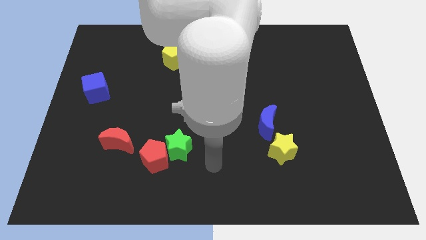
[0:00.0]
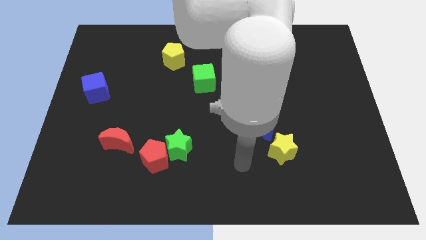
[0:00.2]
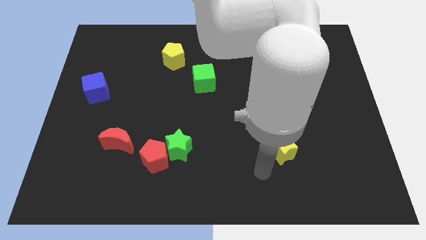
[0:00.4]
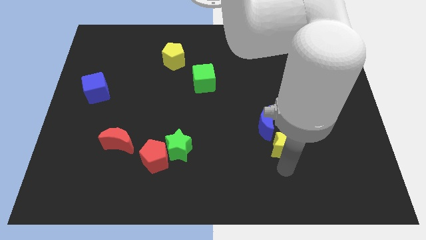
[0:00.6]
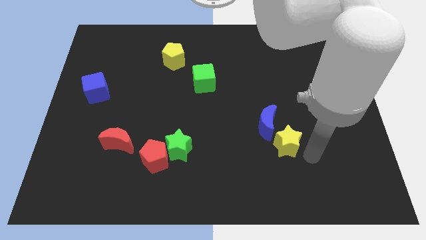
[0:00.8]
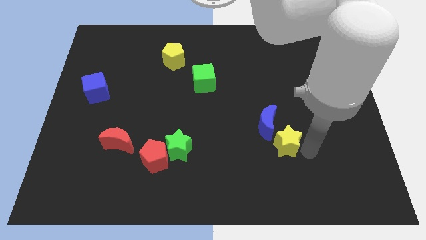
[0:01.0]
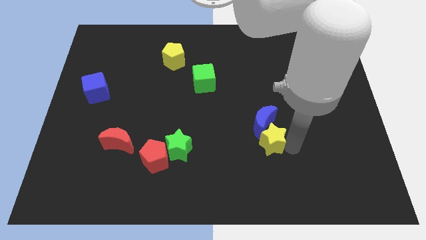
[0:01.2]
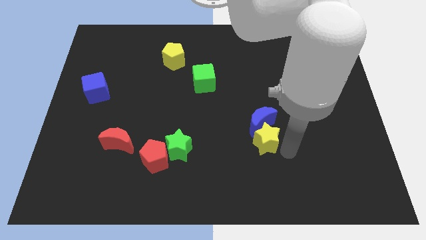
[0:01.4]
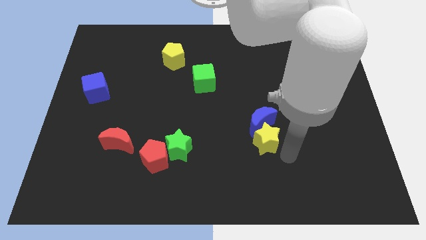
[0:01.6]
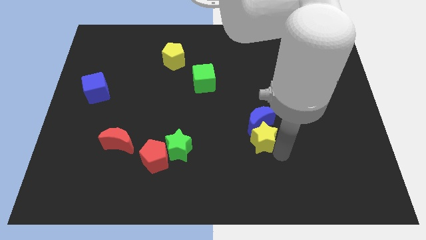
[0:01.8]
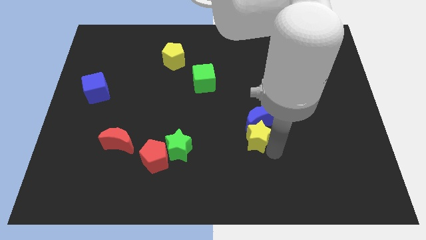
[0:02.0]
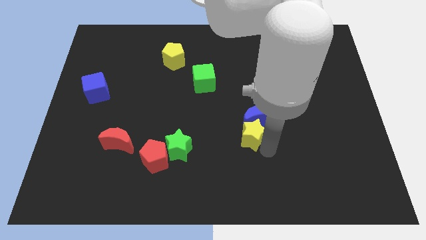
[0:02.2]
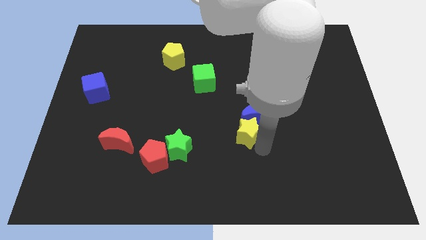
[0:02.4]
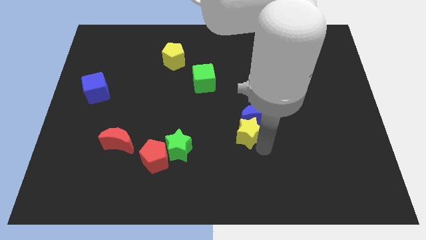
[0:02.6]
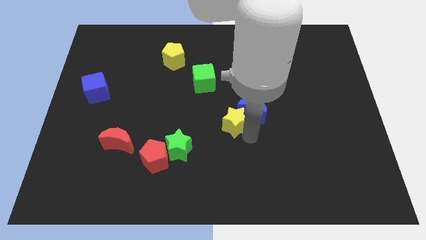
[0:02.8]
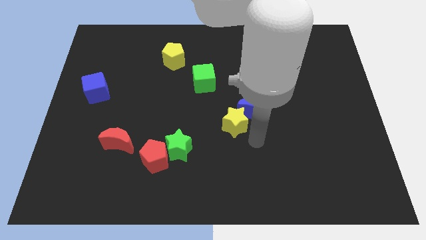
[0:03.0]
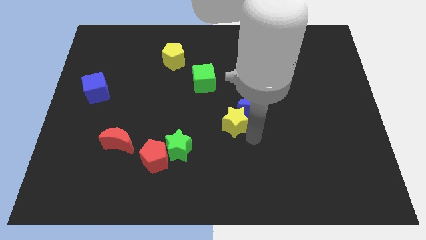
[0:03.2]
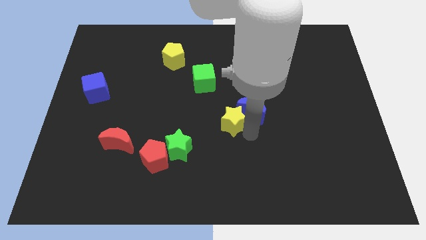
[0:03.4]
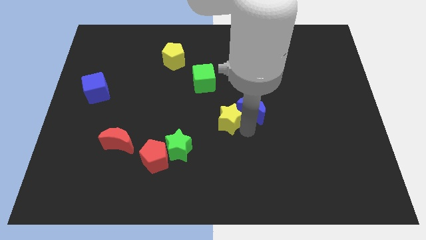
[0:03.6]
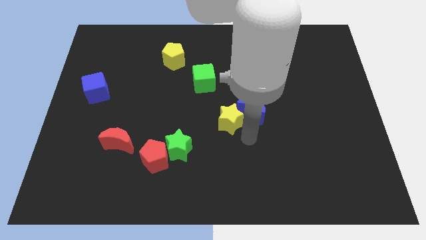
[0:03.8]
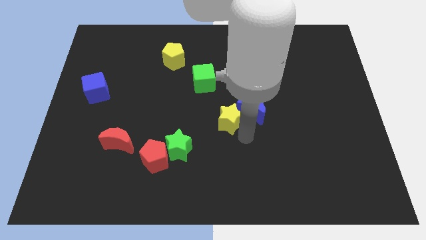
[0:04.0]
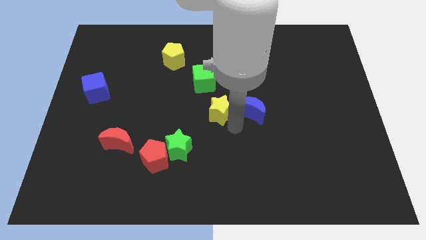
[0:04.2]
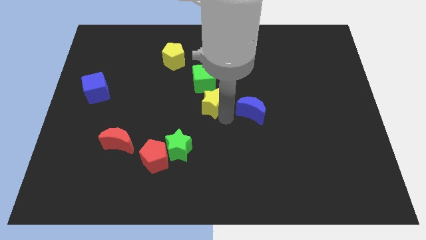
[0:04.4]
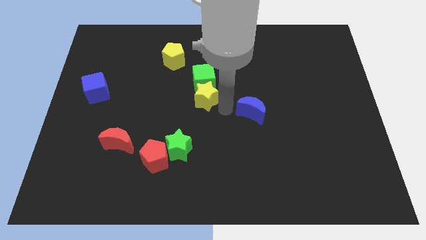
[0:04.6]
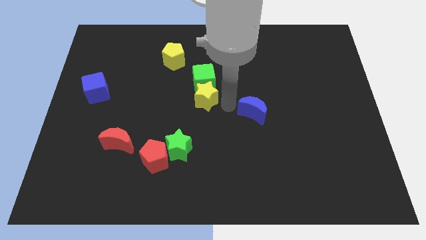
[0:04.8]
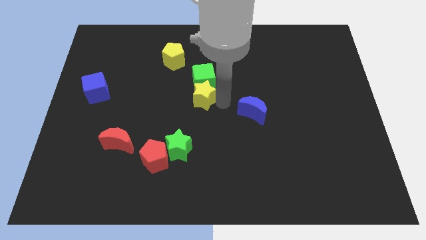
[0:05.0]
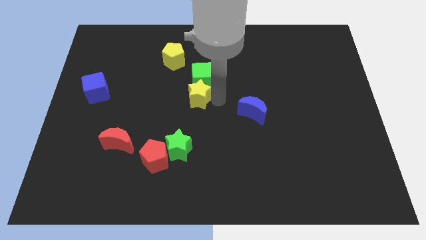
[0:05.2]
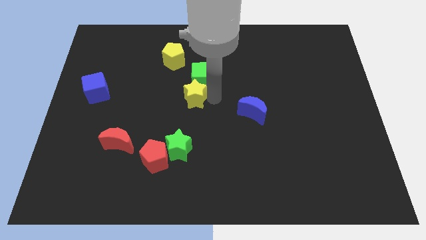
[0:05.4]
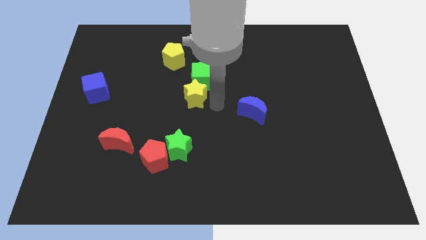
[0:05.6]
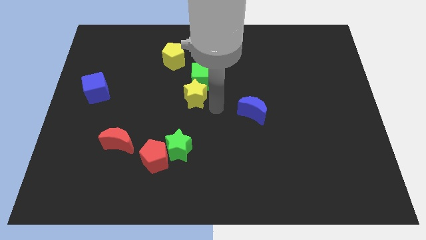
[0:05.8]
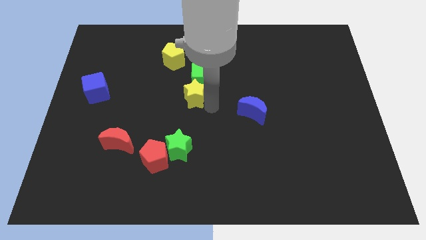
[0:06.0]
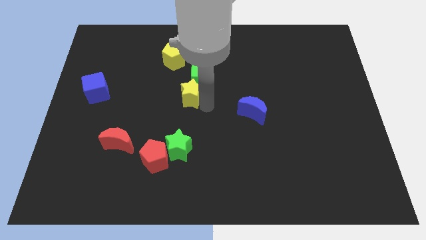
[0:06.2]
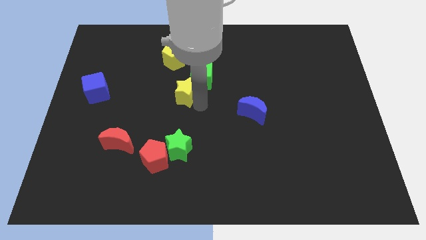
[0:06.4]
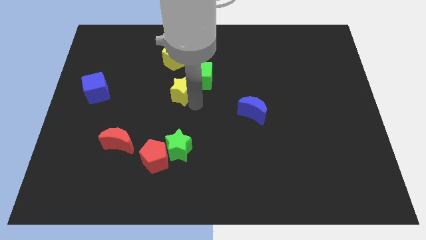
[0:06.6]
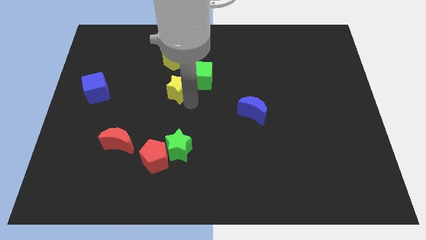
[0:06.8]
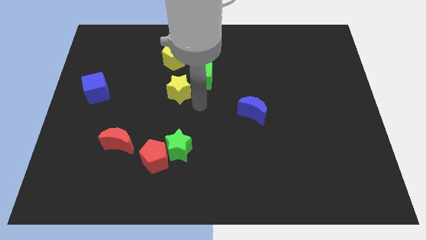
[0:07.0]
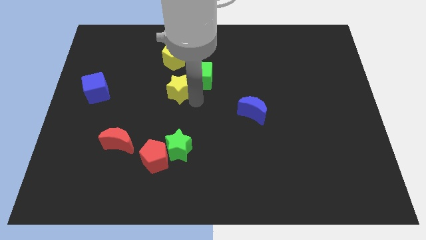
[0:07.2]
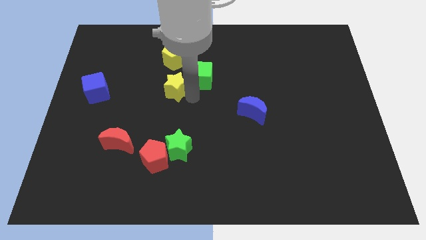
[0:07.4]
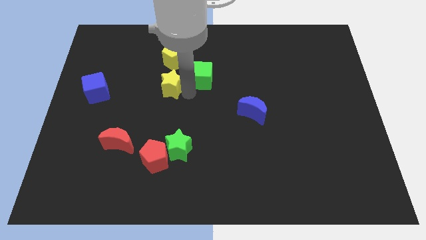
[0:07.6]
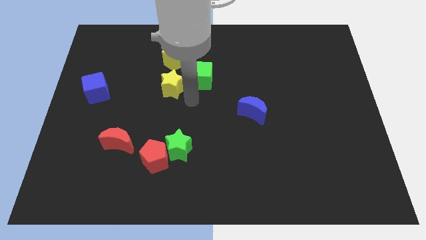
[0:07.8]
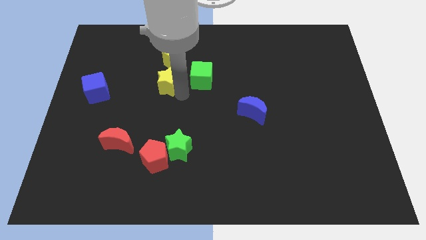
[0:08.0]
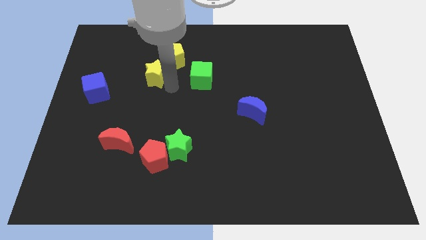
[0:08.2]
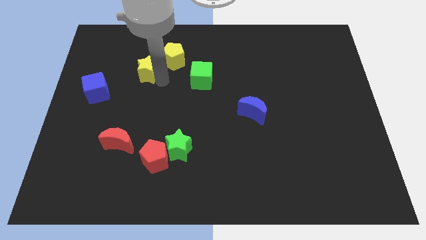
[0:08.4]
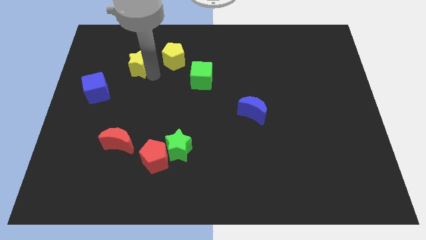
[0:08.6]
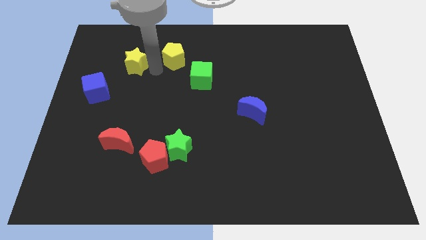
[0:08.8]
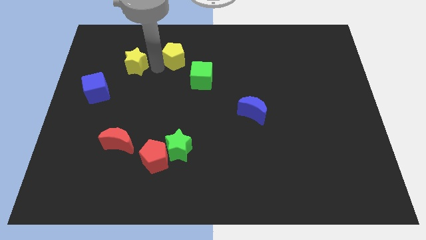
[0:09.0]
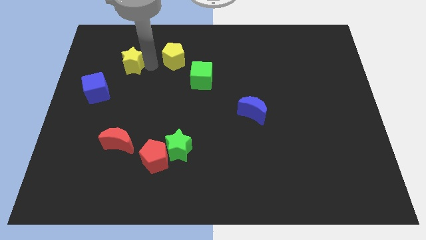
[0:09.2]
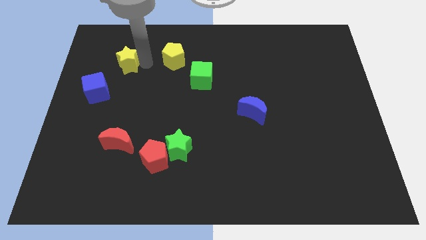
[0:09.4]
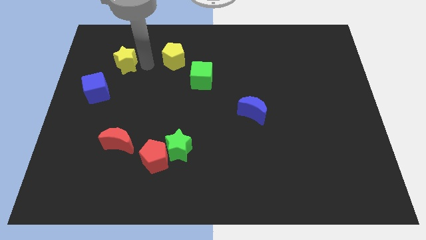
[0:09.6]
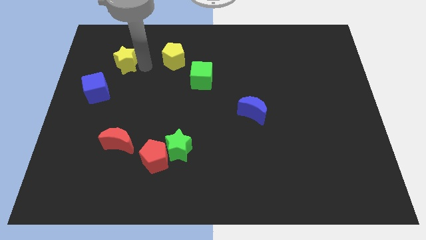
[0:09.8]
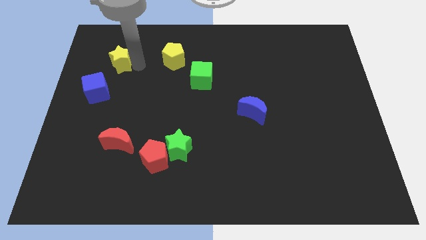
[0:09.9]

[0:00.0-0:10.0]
push the yellow star above the blue cube

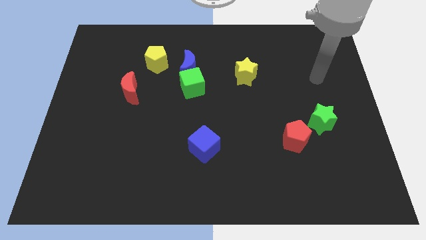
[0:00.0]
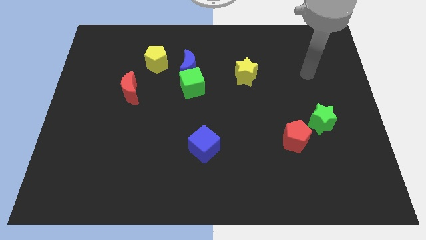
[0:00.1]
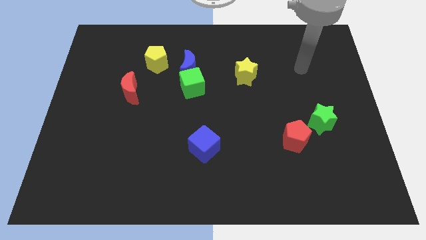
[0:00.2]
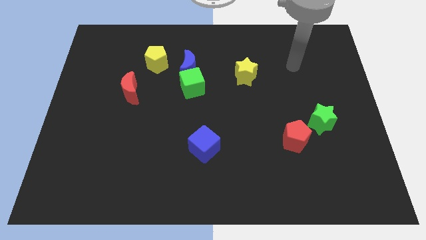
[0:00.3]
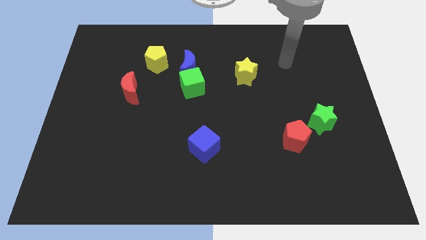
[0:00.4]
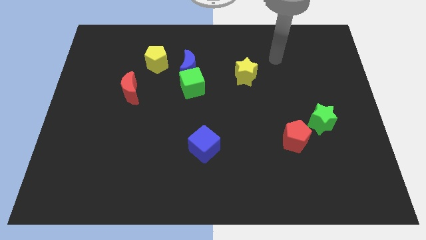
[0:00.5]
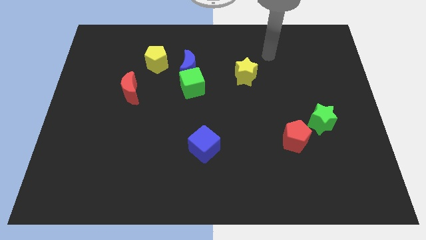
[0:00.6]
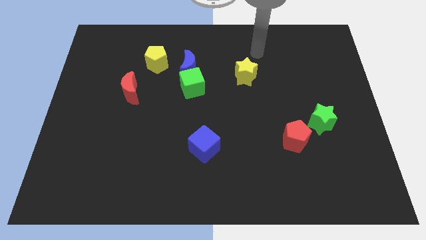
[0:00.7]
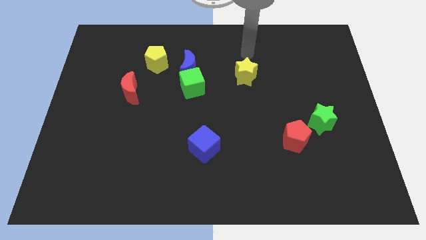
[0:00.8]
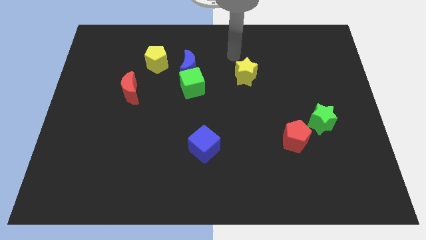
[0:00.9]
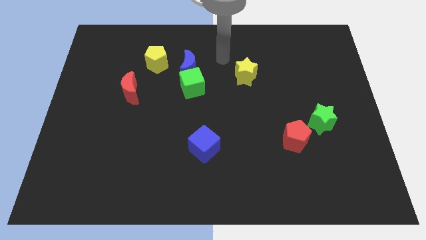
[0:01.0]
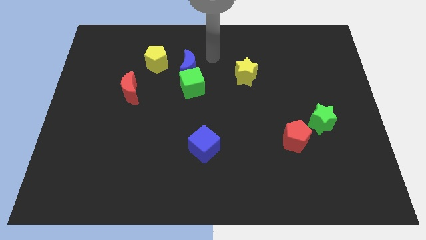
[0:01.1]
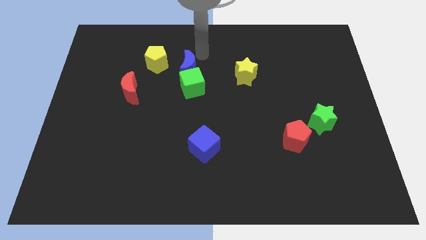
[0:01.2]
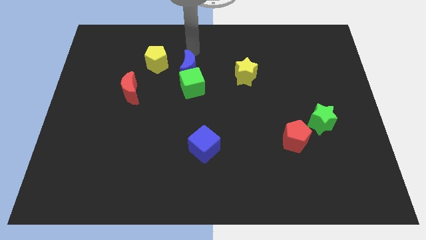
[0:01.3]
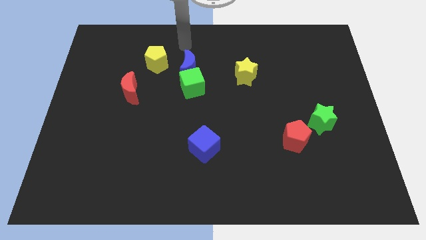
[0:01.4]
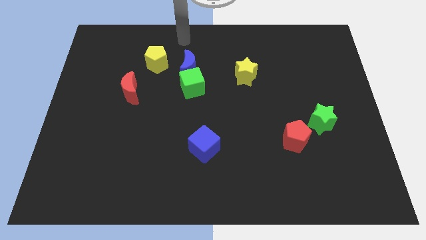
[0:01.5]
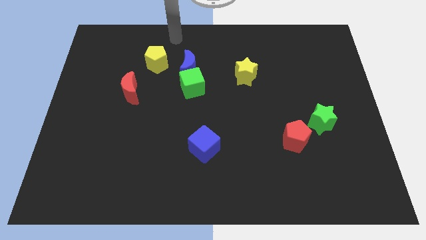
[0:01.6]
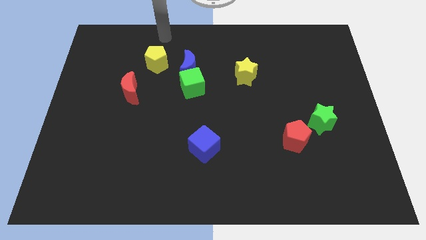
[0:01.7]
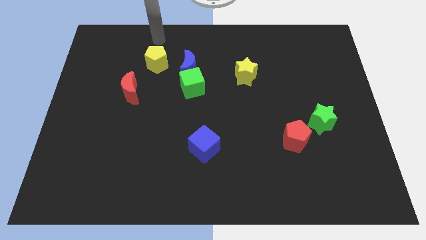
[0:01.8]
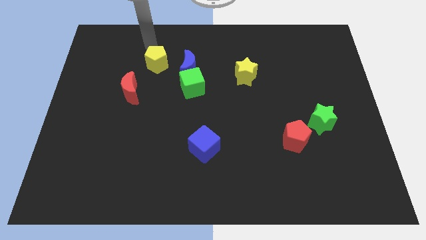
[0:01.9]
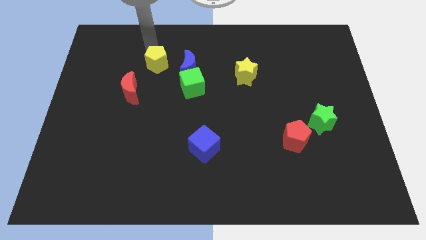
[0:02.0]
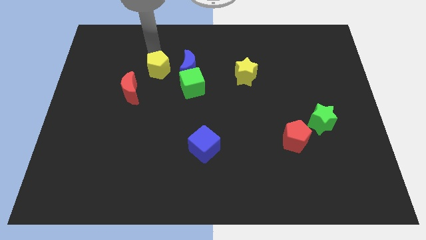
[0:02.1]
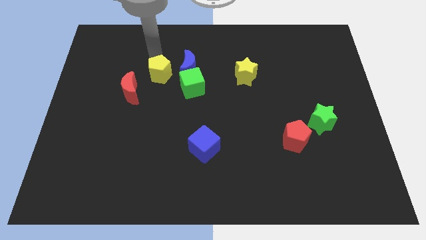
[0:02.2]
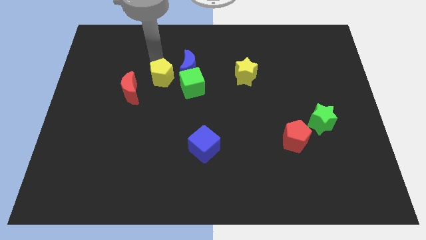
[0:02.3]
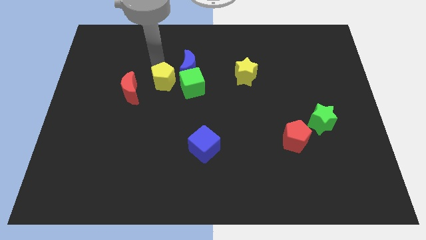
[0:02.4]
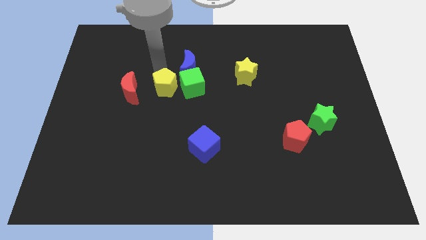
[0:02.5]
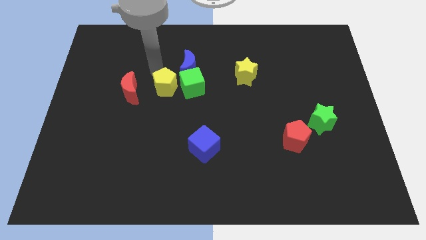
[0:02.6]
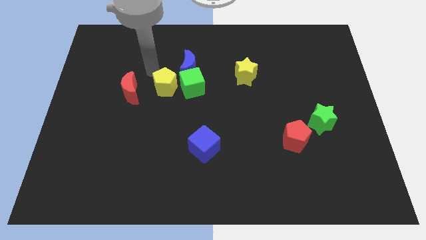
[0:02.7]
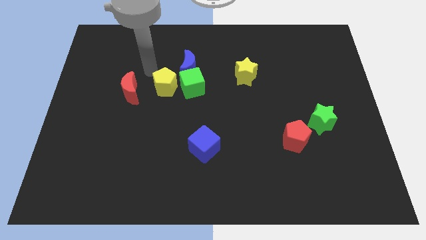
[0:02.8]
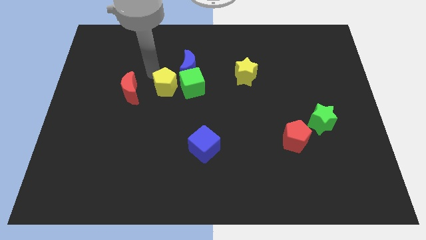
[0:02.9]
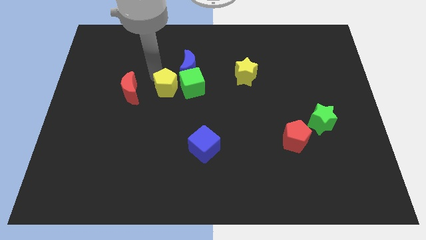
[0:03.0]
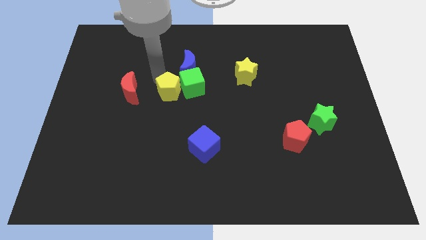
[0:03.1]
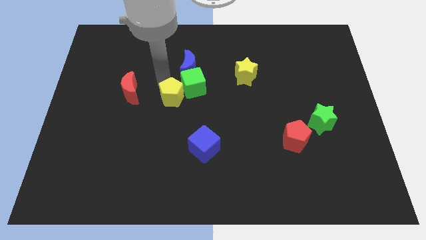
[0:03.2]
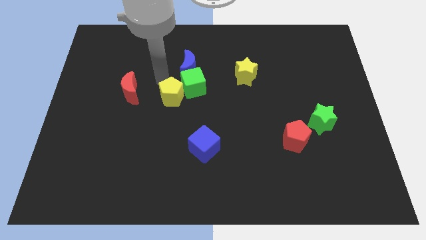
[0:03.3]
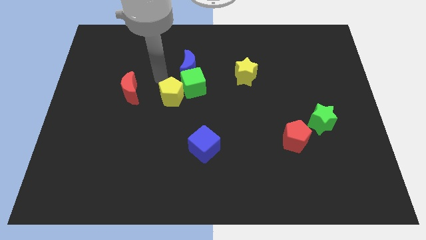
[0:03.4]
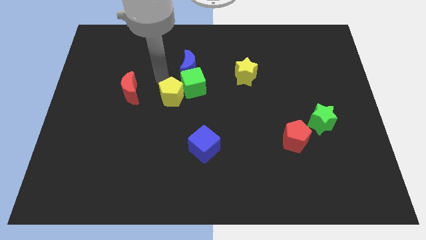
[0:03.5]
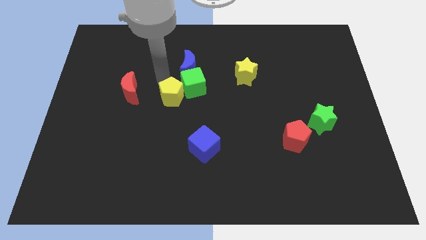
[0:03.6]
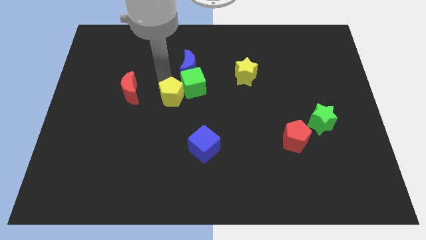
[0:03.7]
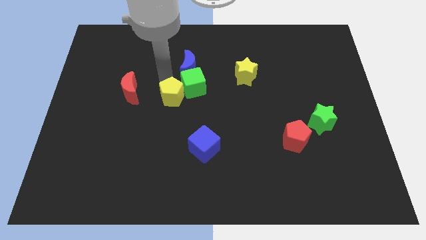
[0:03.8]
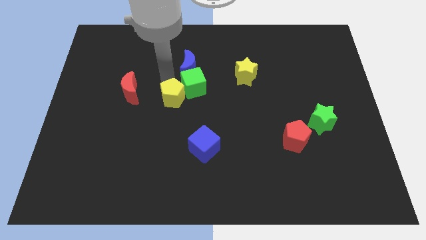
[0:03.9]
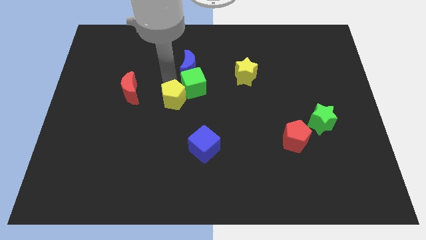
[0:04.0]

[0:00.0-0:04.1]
move the yellow pentagon to the bottom side of the green cube
